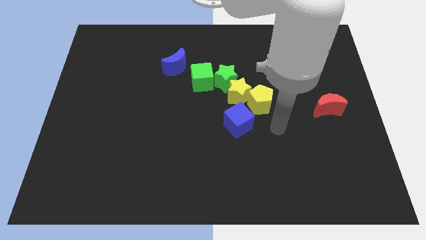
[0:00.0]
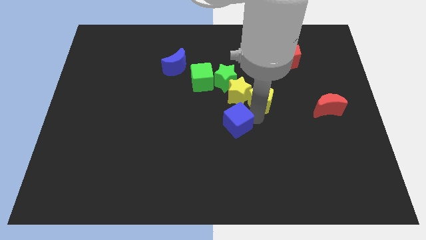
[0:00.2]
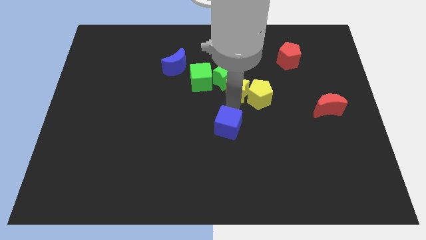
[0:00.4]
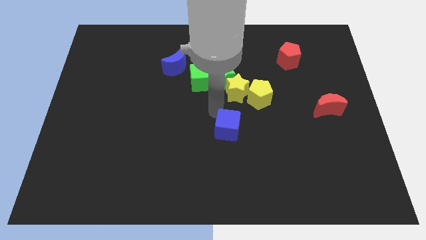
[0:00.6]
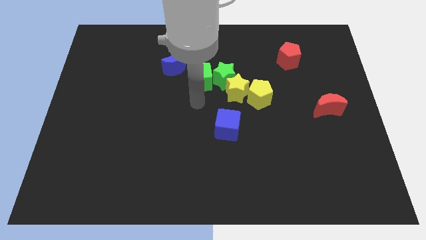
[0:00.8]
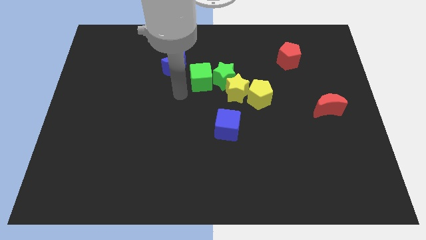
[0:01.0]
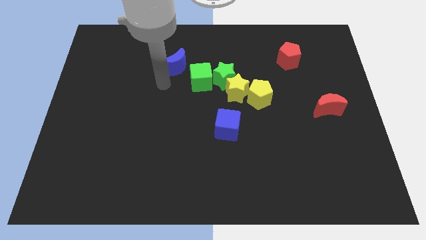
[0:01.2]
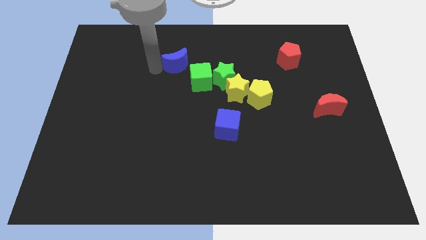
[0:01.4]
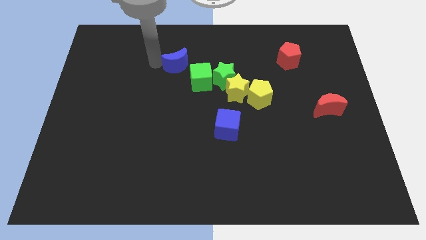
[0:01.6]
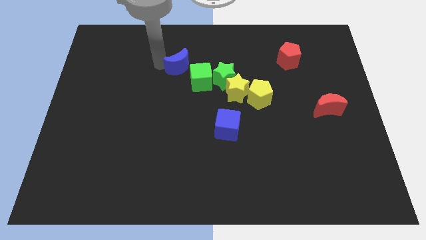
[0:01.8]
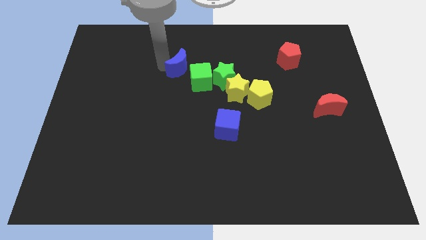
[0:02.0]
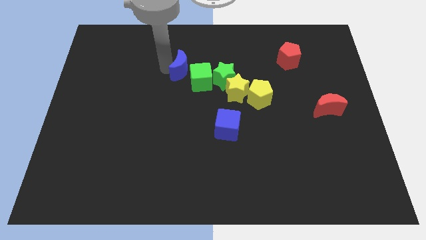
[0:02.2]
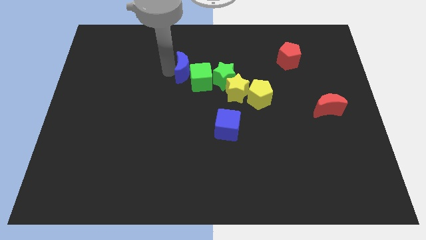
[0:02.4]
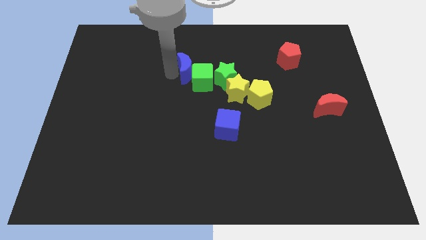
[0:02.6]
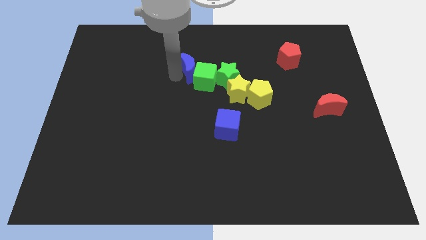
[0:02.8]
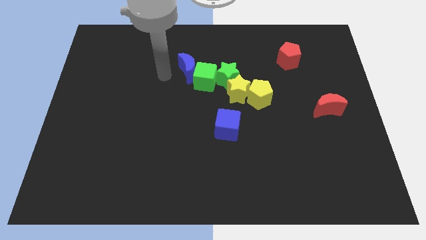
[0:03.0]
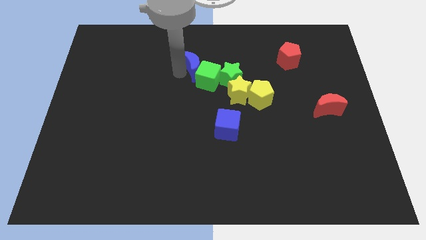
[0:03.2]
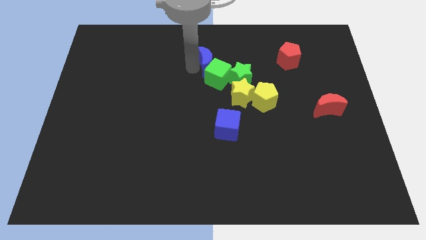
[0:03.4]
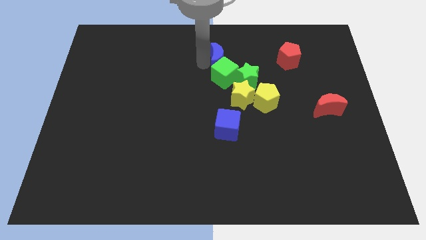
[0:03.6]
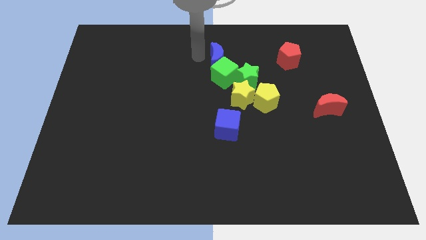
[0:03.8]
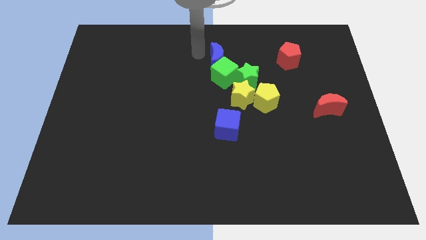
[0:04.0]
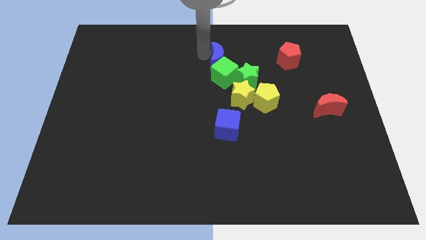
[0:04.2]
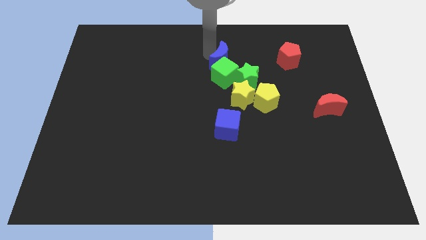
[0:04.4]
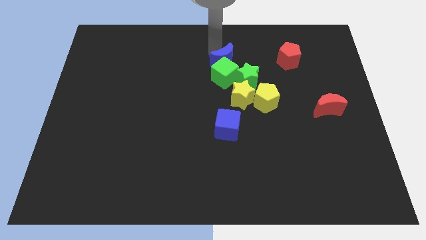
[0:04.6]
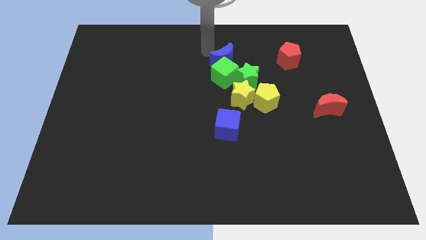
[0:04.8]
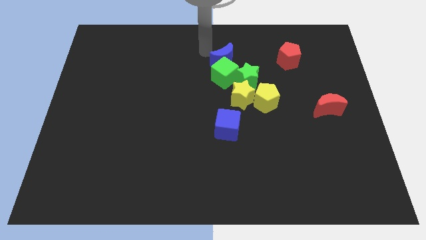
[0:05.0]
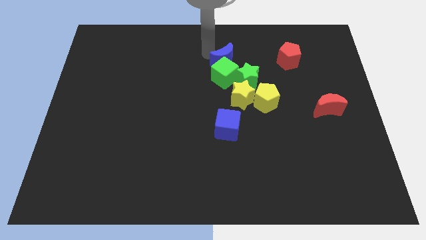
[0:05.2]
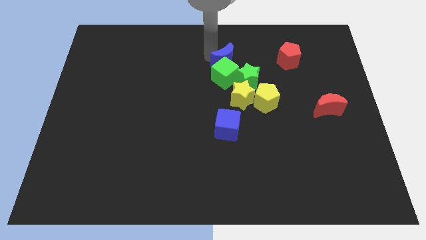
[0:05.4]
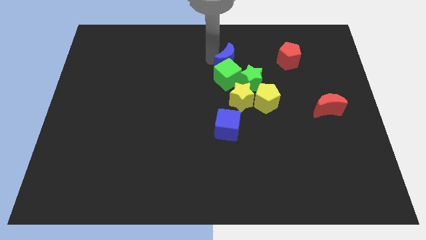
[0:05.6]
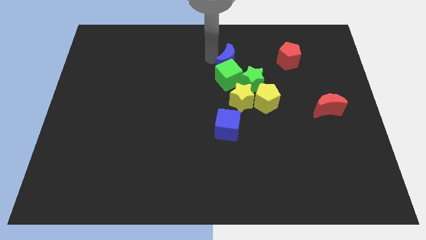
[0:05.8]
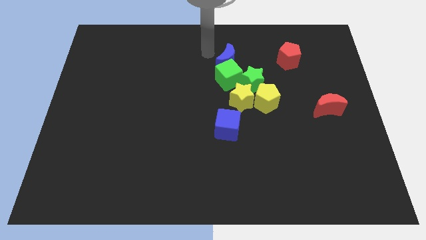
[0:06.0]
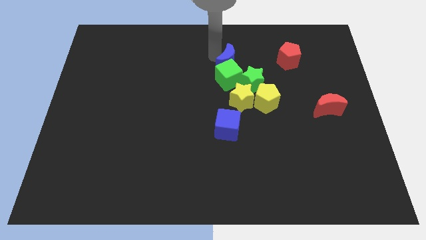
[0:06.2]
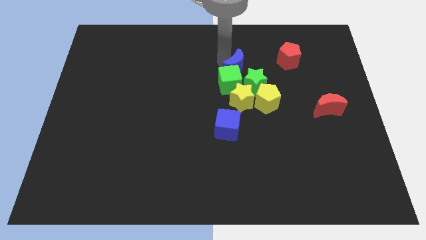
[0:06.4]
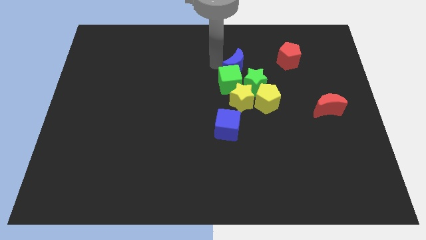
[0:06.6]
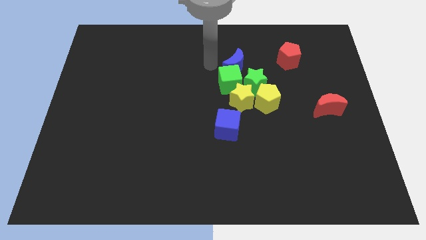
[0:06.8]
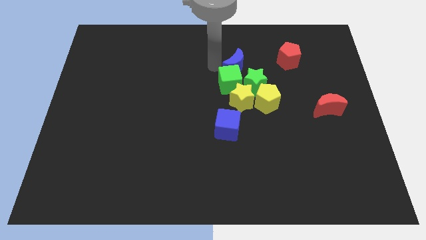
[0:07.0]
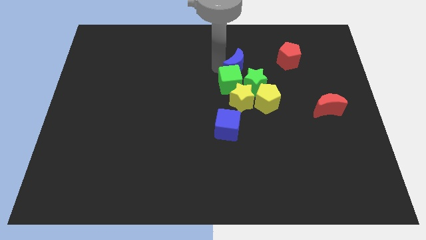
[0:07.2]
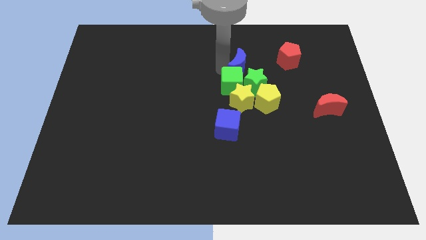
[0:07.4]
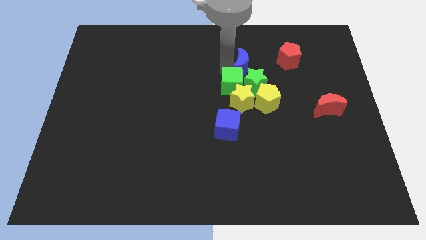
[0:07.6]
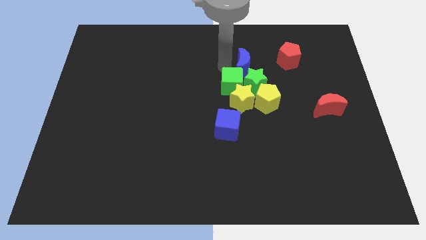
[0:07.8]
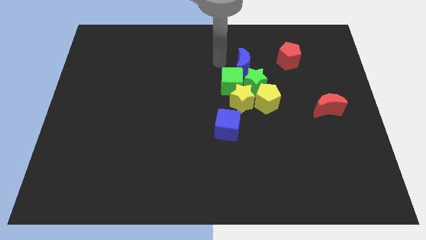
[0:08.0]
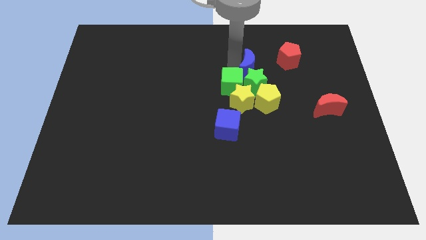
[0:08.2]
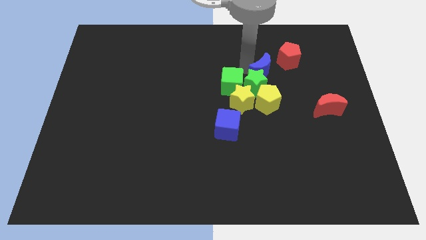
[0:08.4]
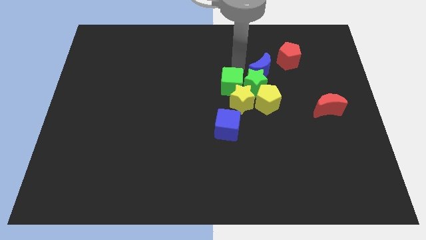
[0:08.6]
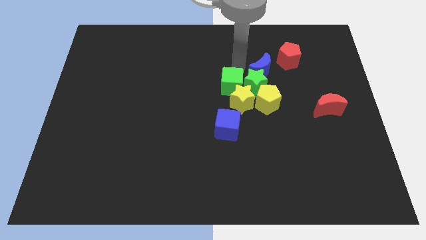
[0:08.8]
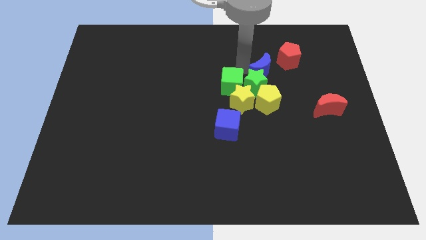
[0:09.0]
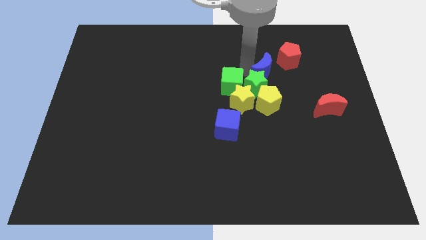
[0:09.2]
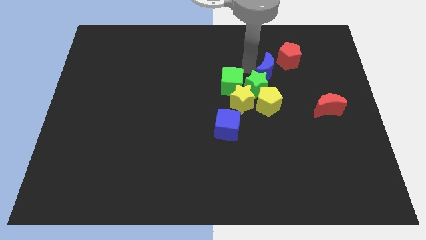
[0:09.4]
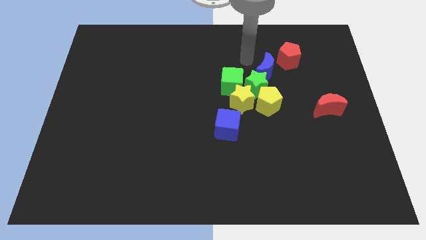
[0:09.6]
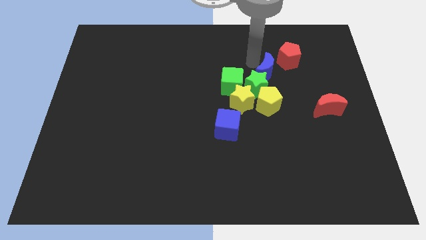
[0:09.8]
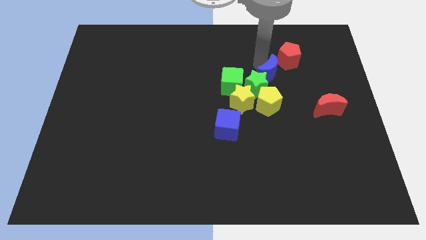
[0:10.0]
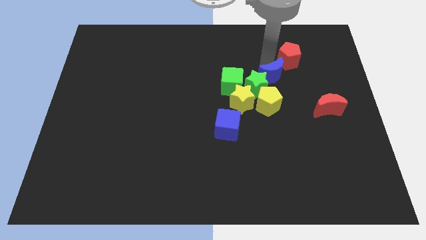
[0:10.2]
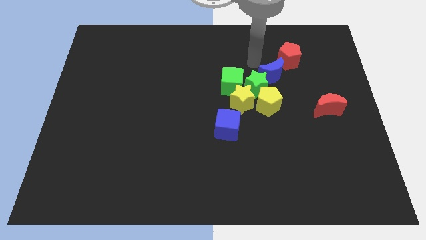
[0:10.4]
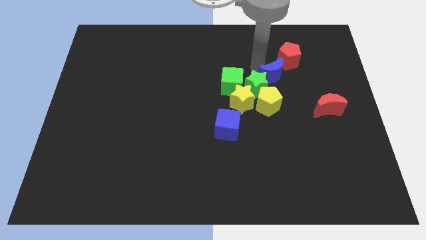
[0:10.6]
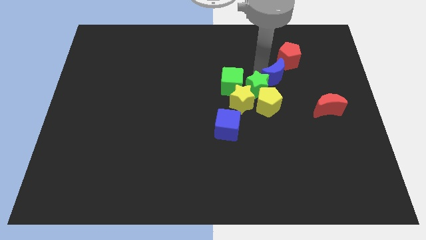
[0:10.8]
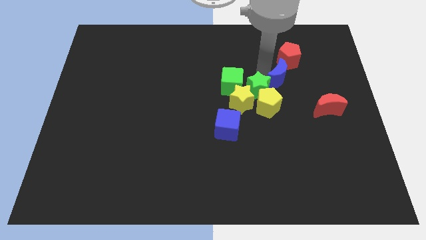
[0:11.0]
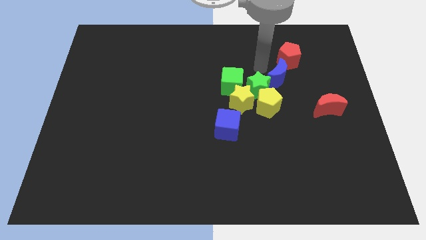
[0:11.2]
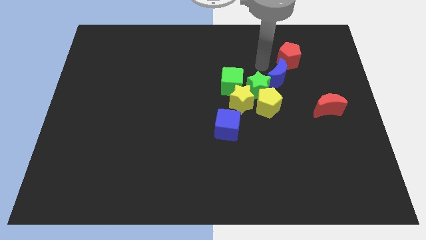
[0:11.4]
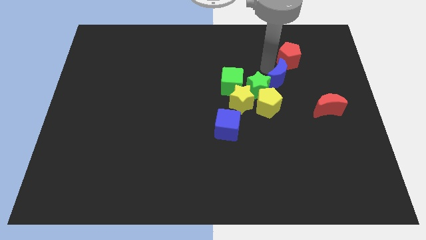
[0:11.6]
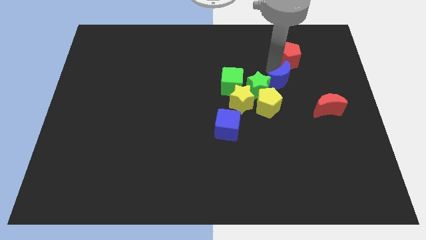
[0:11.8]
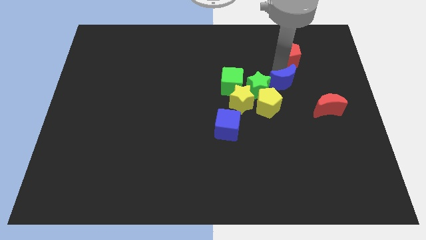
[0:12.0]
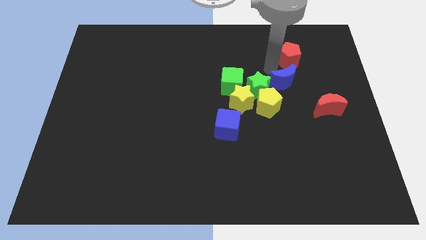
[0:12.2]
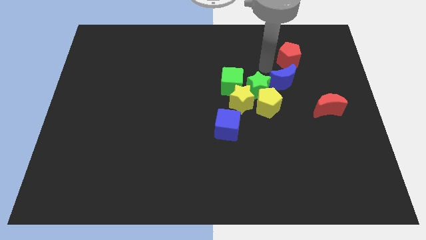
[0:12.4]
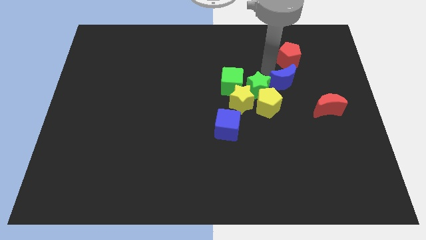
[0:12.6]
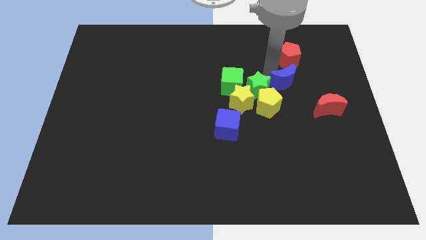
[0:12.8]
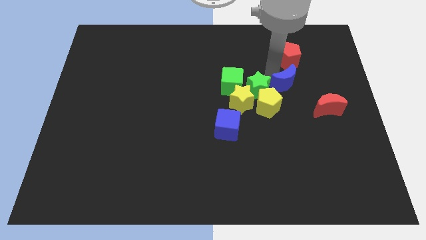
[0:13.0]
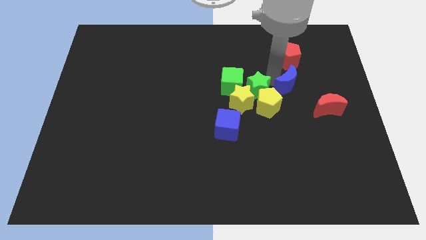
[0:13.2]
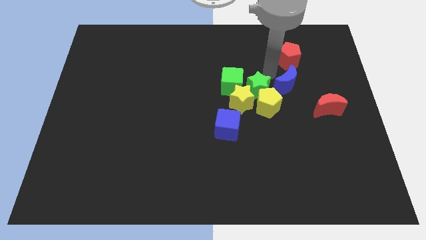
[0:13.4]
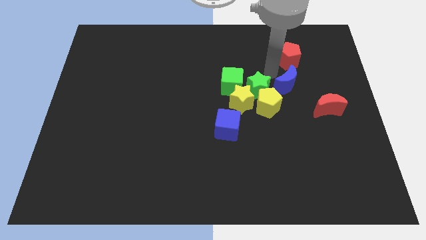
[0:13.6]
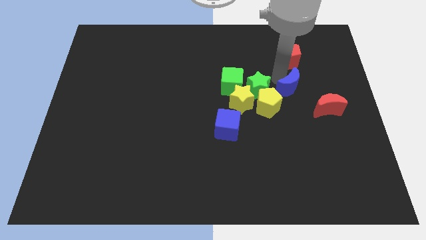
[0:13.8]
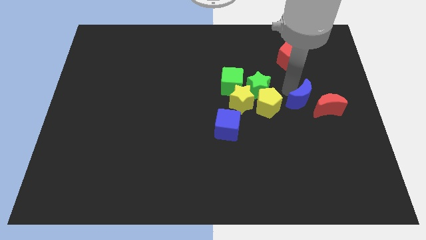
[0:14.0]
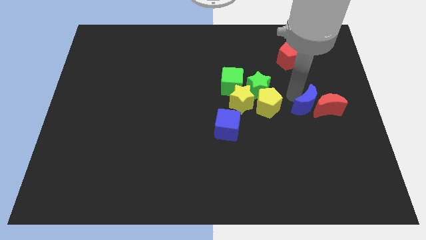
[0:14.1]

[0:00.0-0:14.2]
push the blue moon close to the red moon

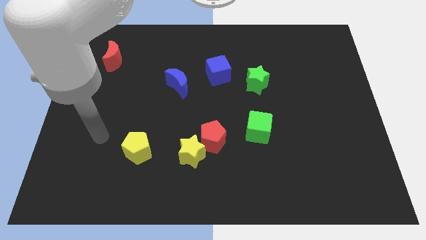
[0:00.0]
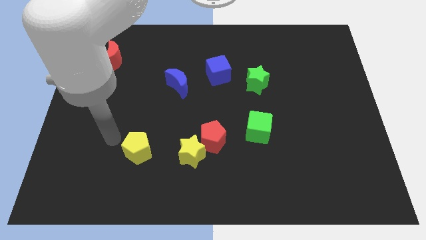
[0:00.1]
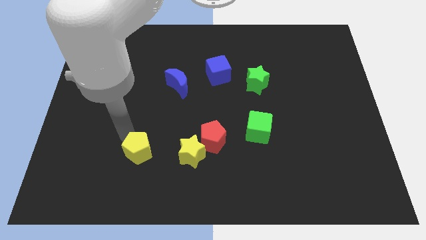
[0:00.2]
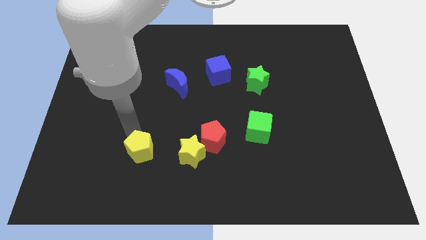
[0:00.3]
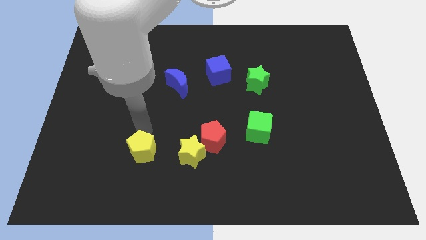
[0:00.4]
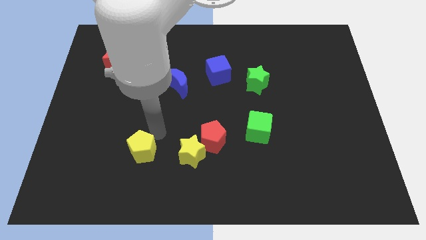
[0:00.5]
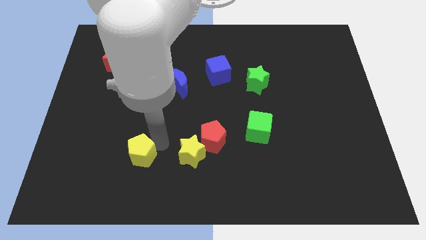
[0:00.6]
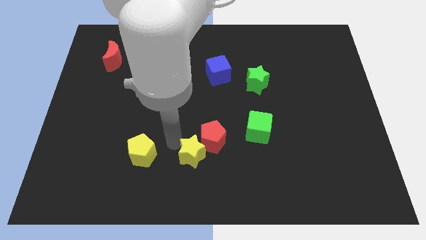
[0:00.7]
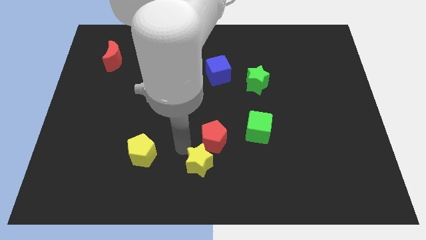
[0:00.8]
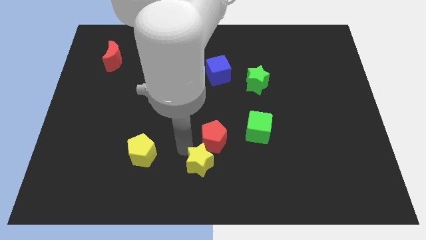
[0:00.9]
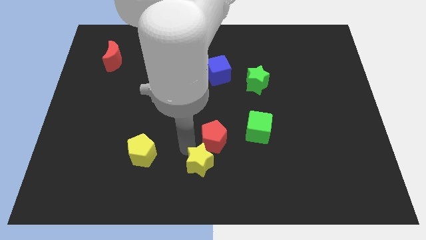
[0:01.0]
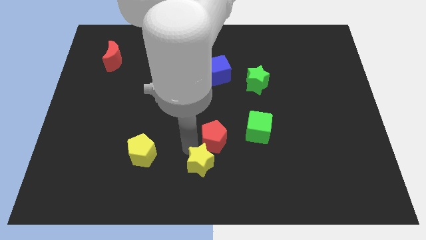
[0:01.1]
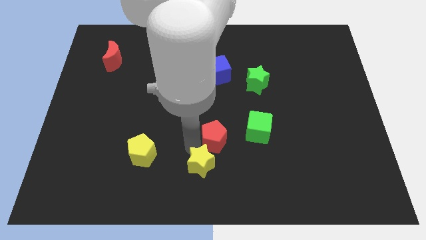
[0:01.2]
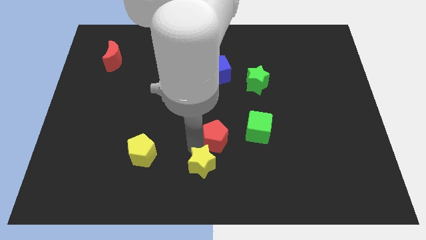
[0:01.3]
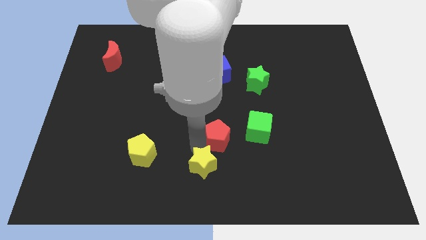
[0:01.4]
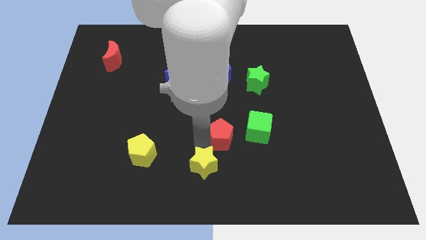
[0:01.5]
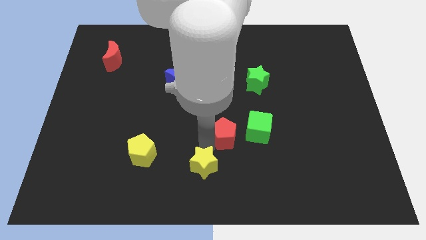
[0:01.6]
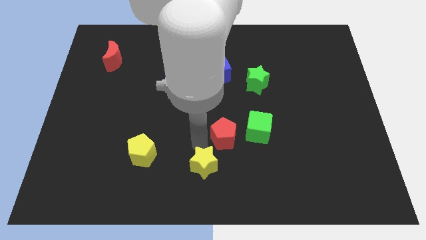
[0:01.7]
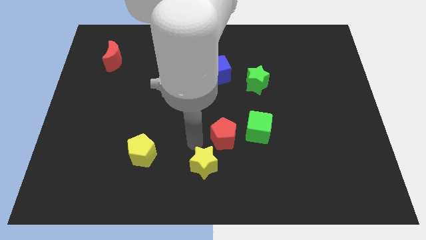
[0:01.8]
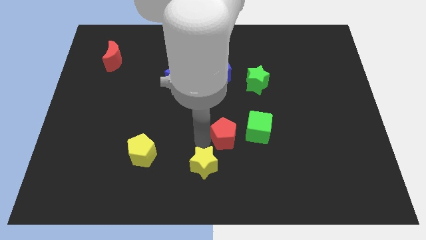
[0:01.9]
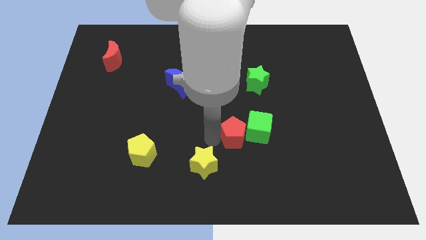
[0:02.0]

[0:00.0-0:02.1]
move the red pentagon to the green cube
